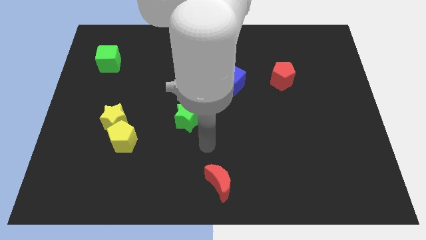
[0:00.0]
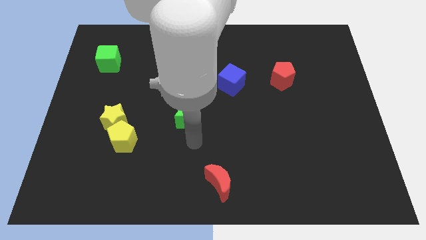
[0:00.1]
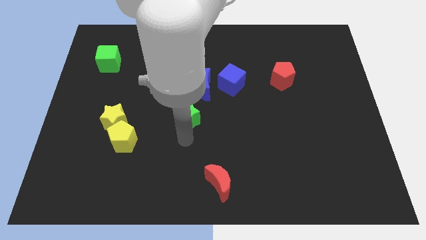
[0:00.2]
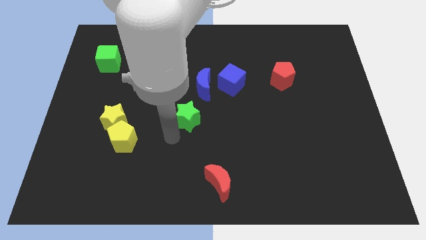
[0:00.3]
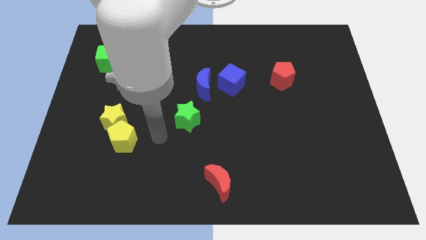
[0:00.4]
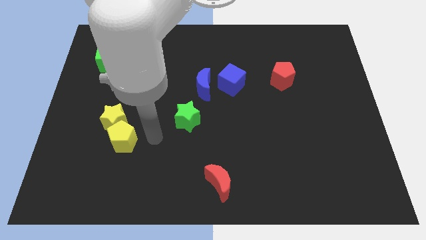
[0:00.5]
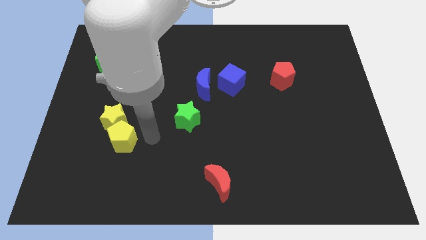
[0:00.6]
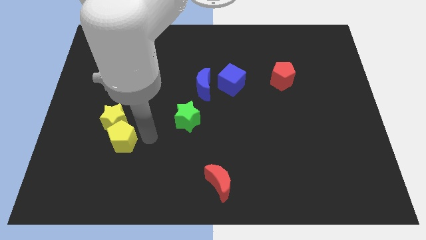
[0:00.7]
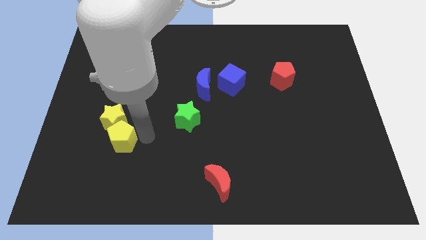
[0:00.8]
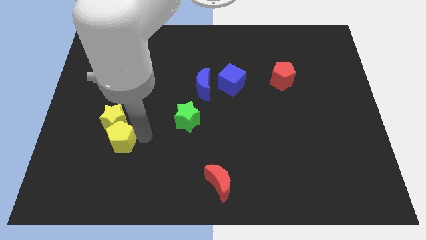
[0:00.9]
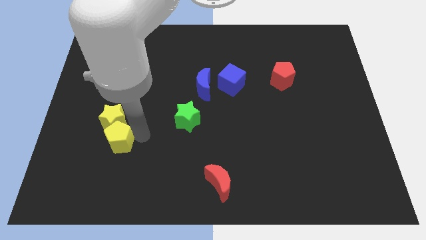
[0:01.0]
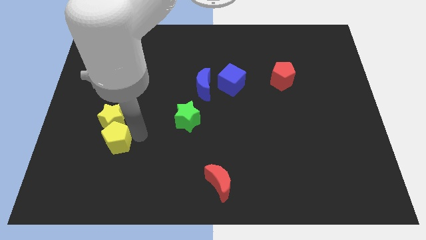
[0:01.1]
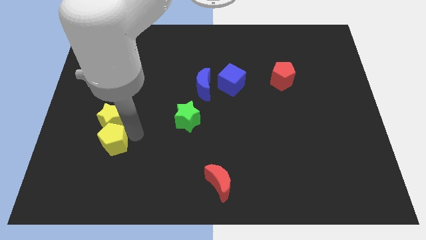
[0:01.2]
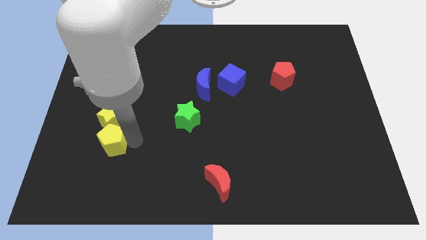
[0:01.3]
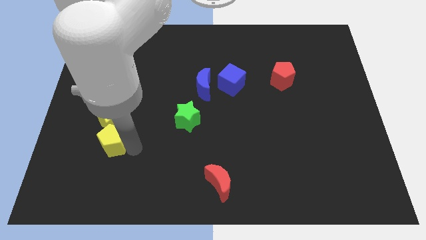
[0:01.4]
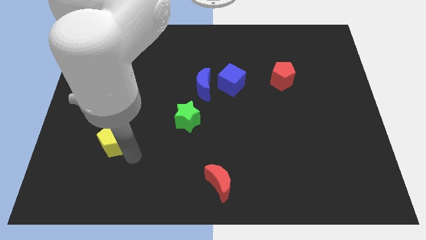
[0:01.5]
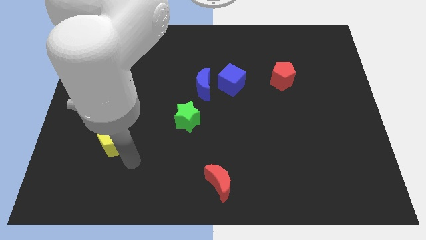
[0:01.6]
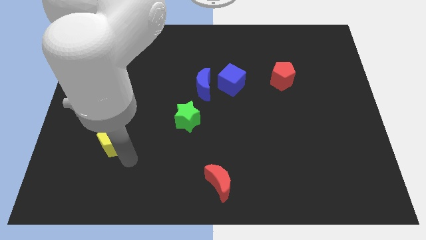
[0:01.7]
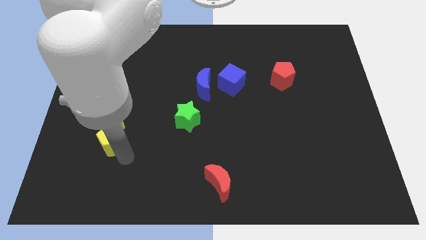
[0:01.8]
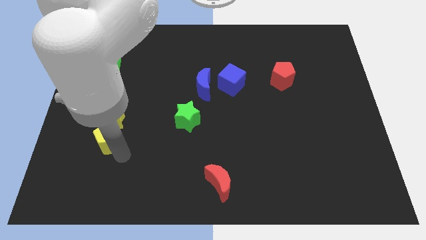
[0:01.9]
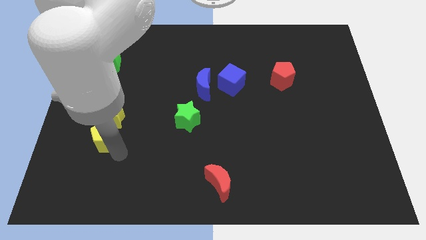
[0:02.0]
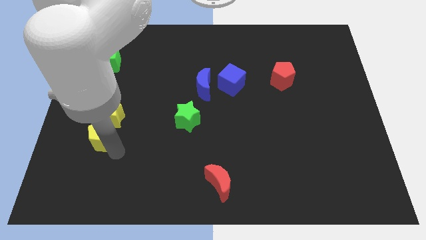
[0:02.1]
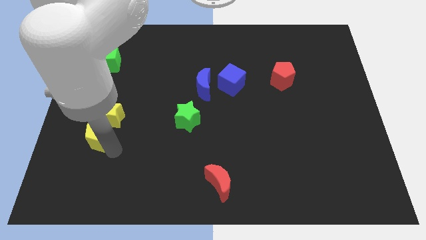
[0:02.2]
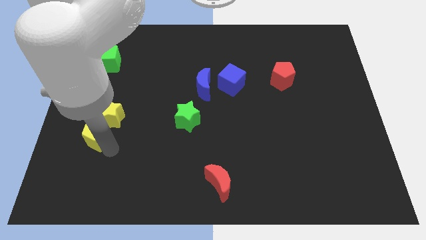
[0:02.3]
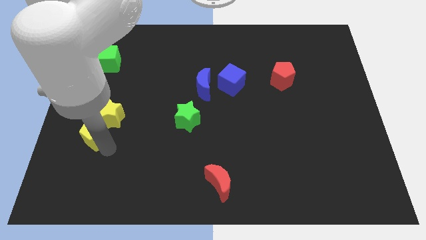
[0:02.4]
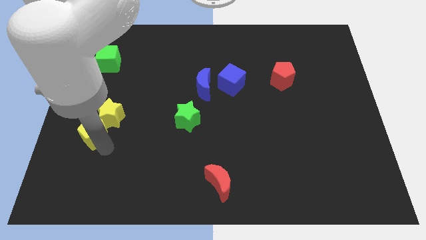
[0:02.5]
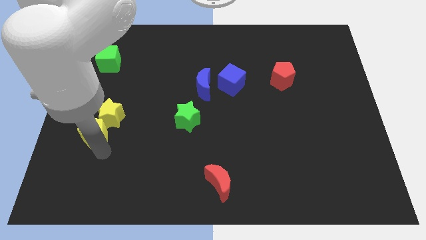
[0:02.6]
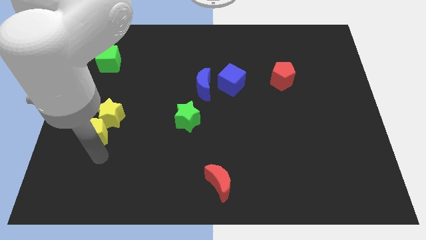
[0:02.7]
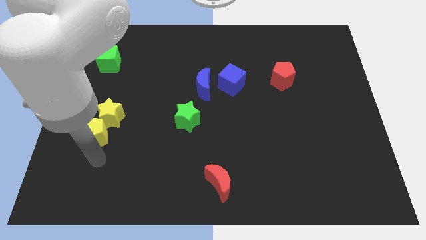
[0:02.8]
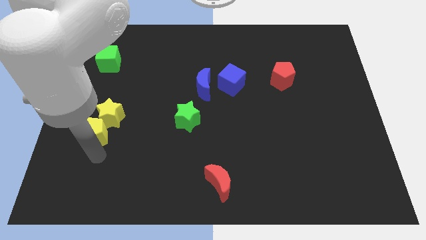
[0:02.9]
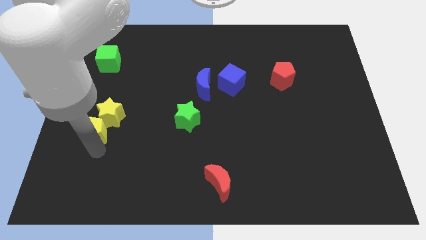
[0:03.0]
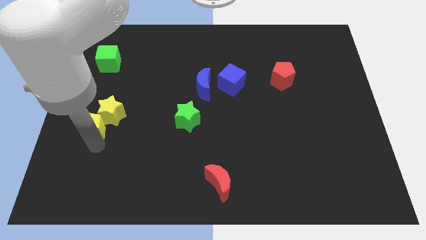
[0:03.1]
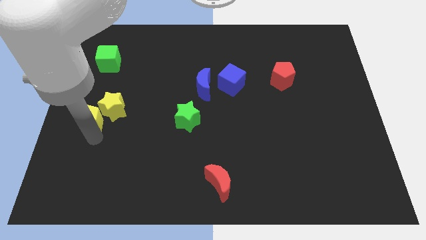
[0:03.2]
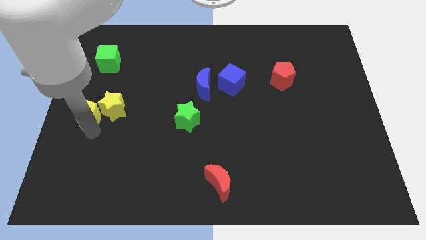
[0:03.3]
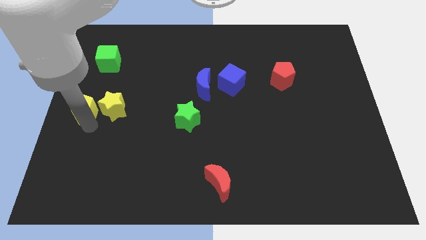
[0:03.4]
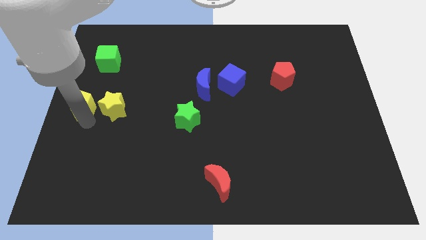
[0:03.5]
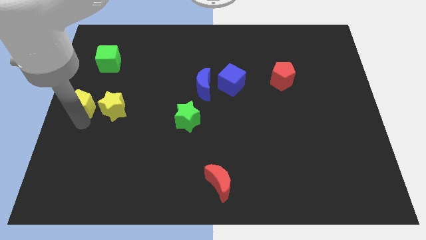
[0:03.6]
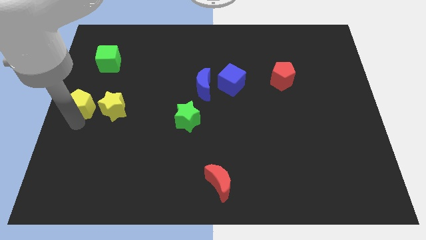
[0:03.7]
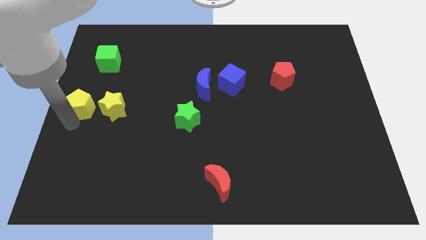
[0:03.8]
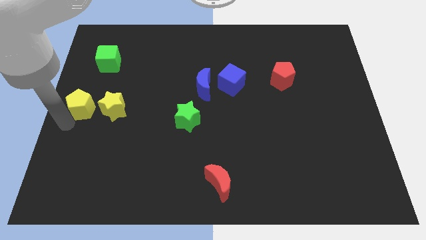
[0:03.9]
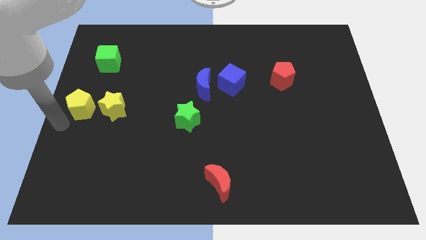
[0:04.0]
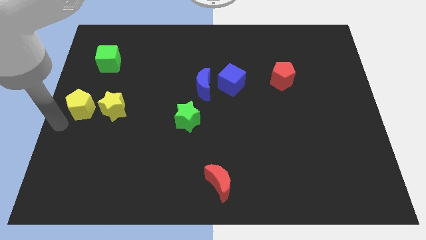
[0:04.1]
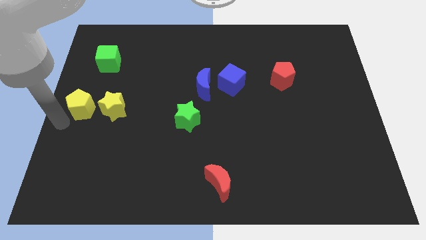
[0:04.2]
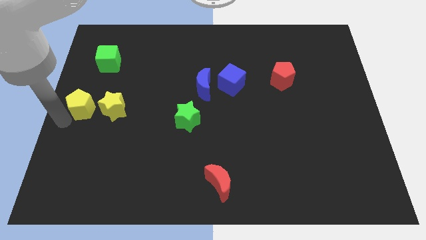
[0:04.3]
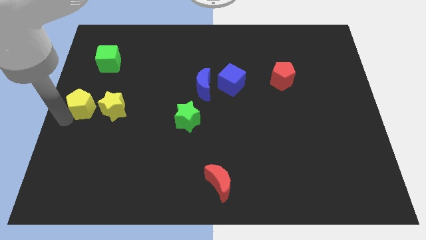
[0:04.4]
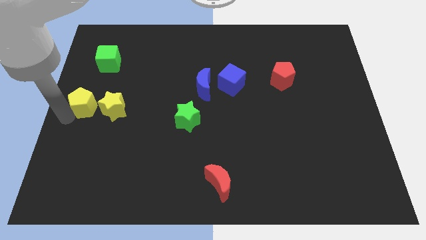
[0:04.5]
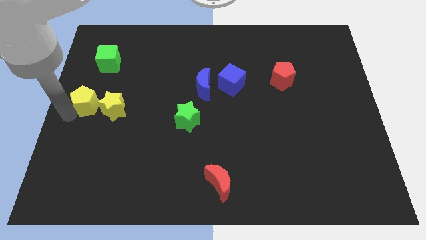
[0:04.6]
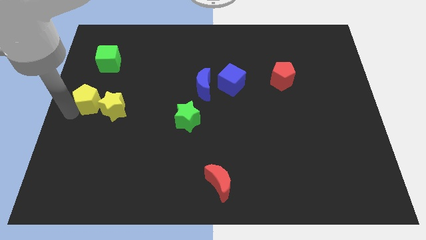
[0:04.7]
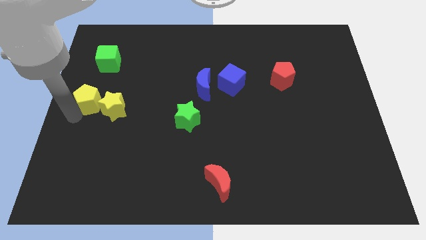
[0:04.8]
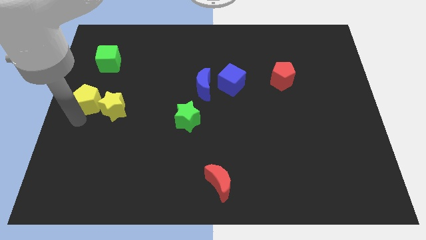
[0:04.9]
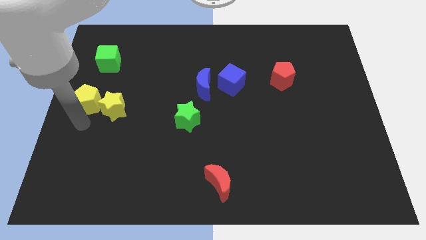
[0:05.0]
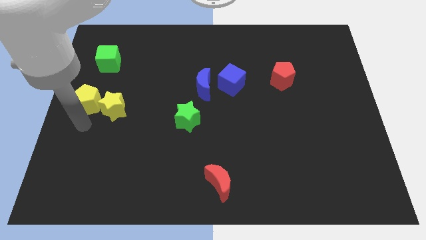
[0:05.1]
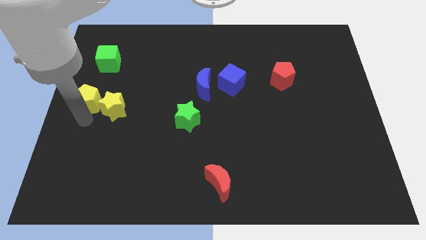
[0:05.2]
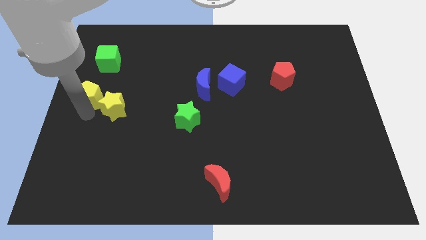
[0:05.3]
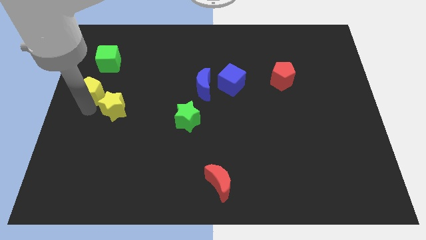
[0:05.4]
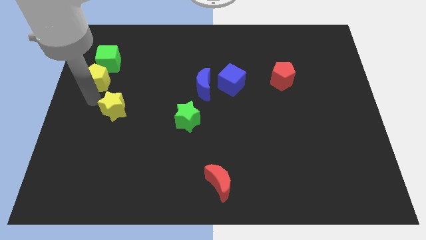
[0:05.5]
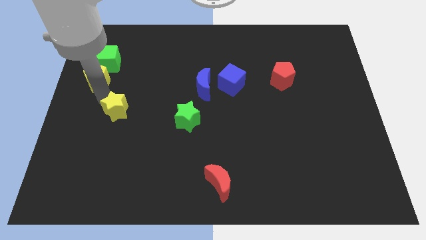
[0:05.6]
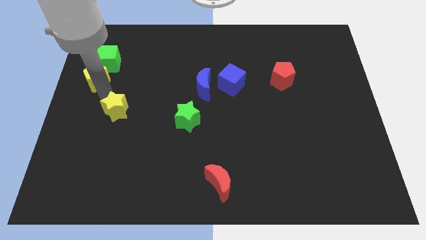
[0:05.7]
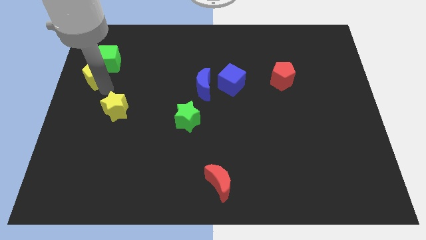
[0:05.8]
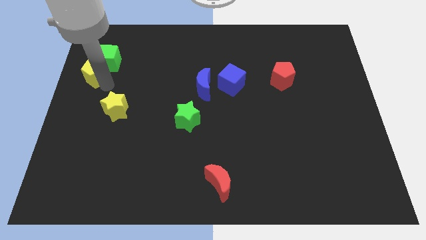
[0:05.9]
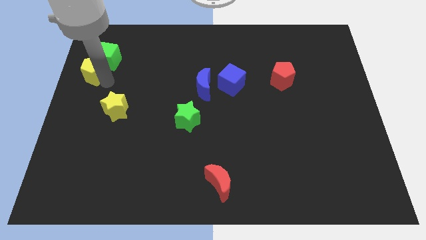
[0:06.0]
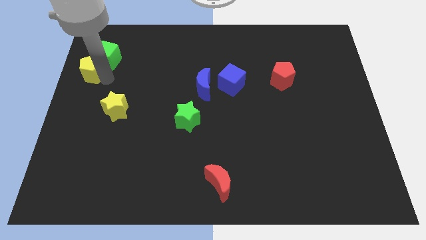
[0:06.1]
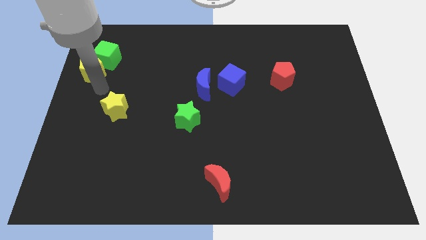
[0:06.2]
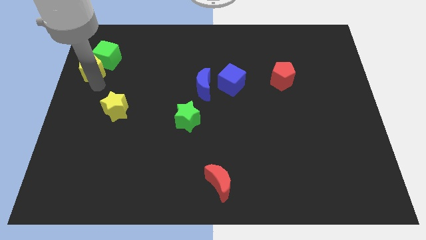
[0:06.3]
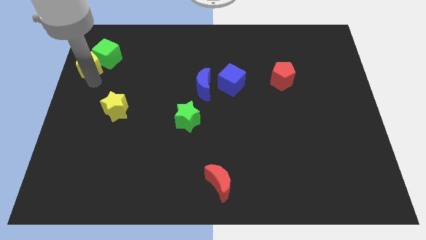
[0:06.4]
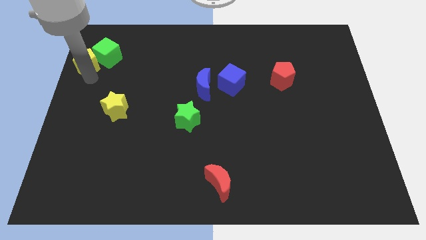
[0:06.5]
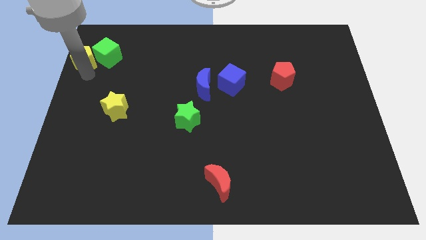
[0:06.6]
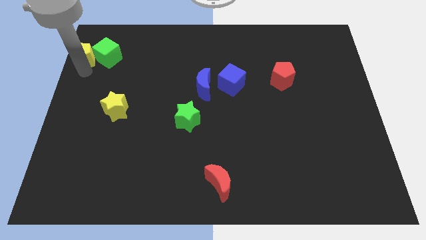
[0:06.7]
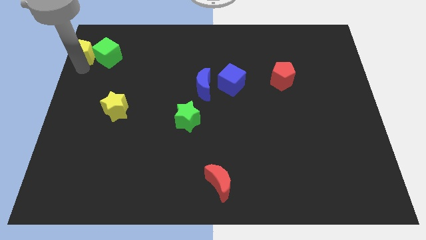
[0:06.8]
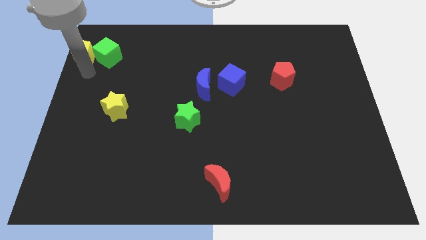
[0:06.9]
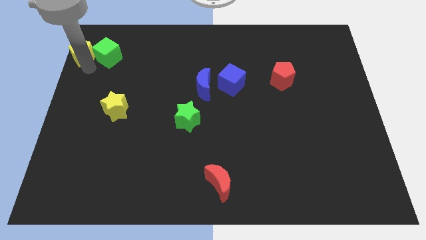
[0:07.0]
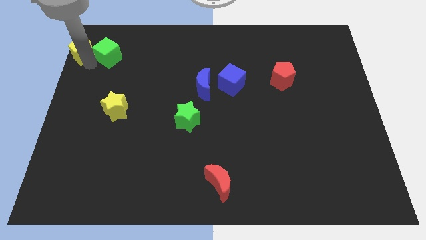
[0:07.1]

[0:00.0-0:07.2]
put the yellow pentagon to the top left corner
